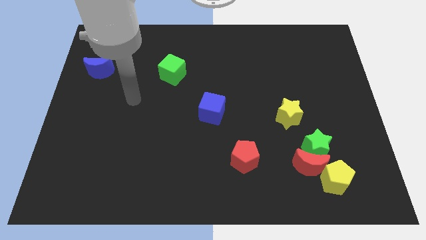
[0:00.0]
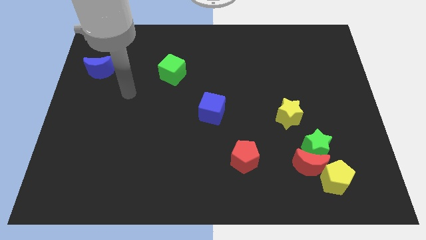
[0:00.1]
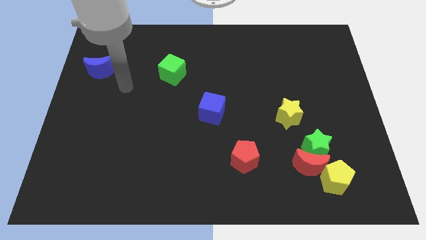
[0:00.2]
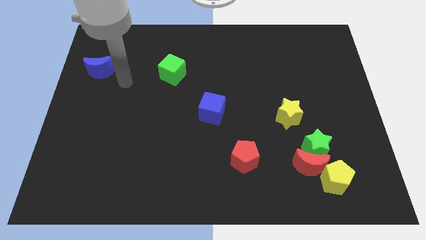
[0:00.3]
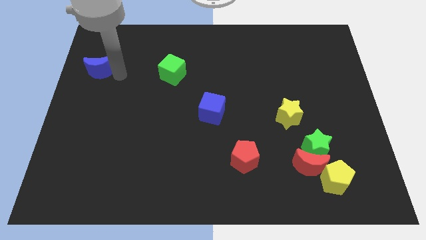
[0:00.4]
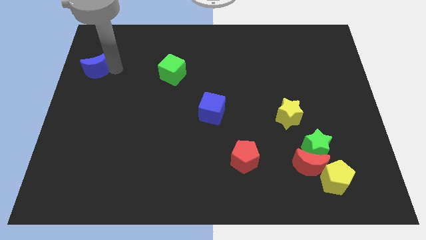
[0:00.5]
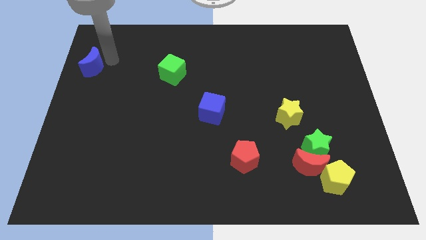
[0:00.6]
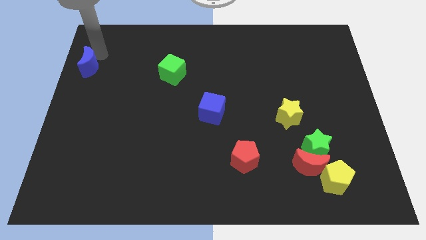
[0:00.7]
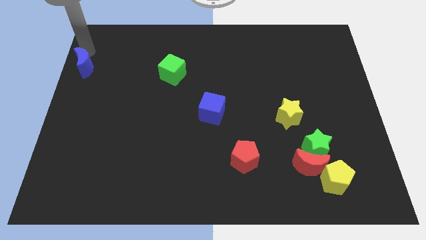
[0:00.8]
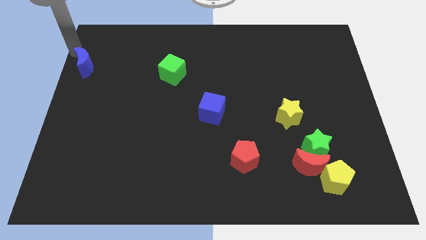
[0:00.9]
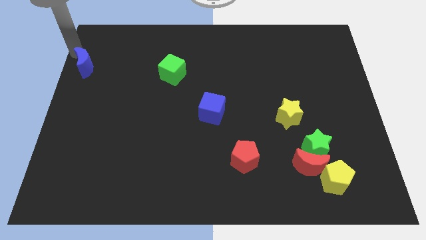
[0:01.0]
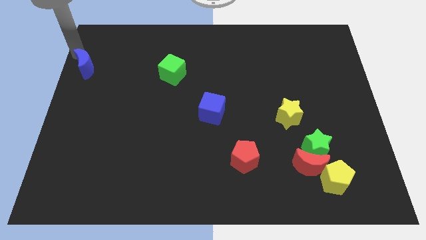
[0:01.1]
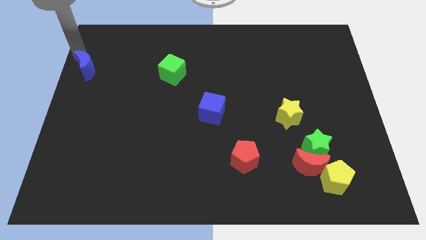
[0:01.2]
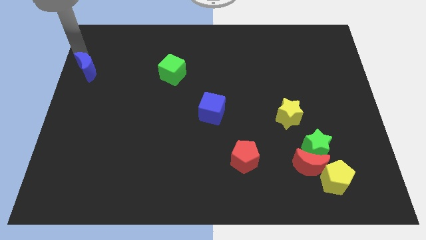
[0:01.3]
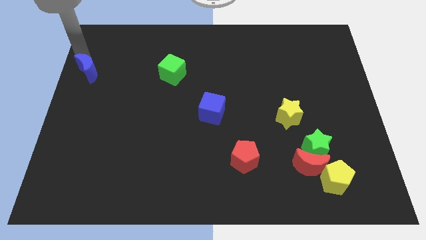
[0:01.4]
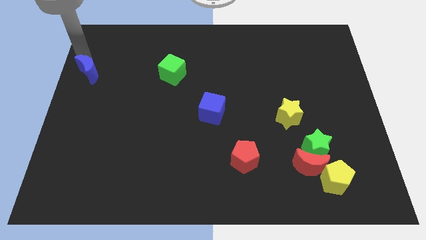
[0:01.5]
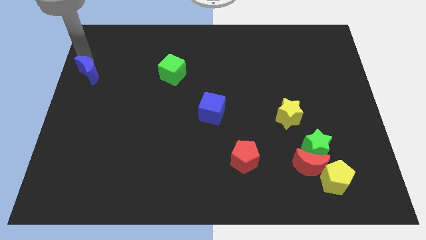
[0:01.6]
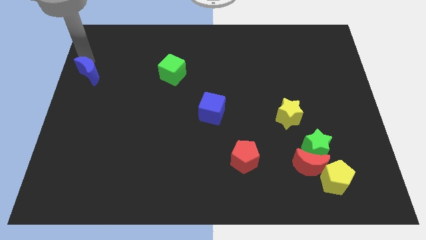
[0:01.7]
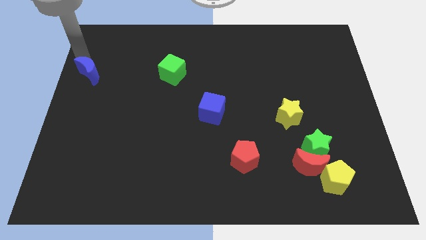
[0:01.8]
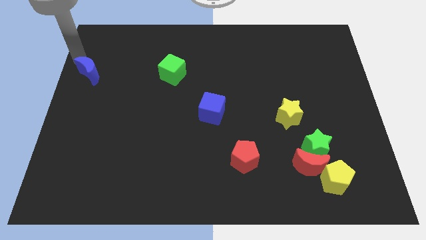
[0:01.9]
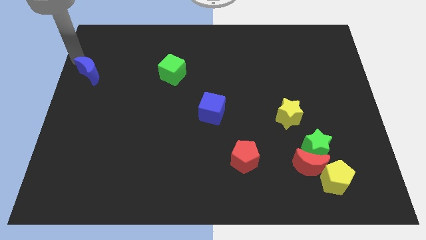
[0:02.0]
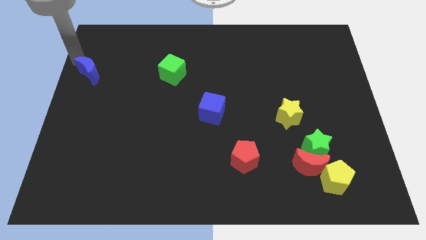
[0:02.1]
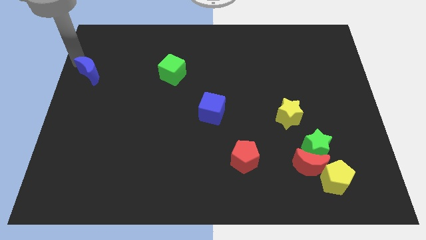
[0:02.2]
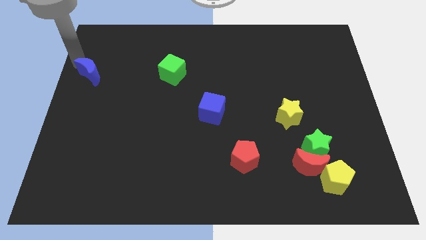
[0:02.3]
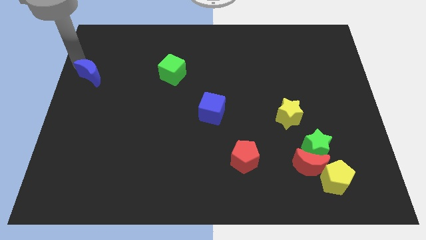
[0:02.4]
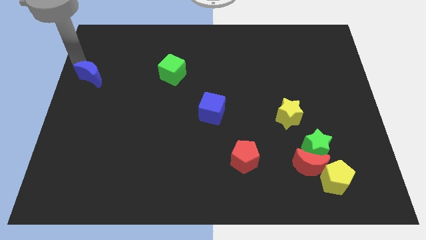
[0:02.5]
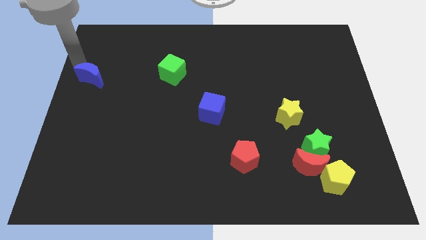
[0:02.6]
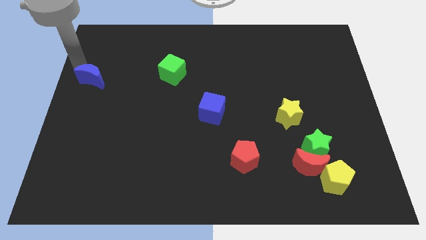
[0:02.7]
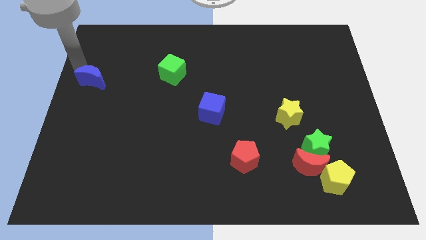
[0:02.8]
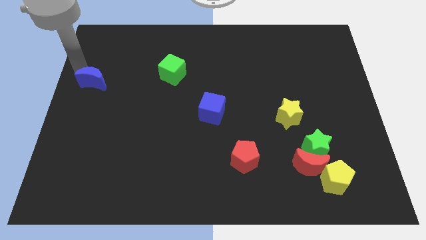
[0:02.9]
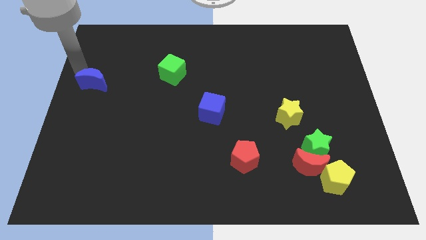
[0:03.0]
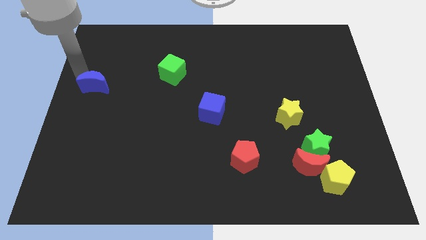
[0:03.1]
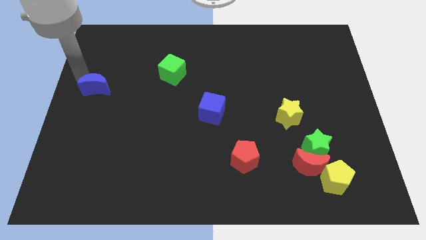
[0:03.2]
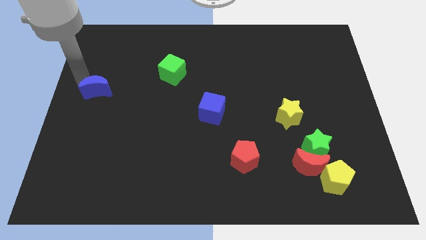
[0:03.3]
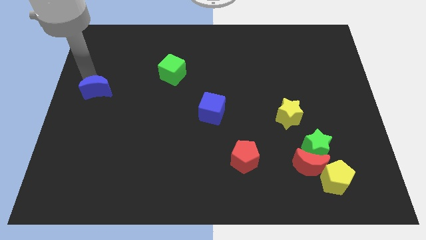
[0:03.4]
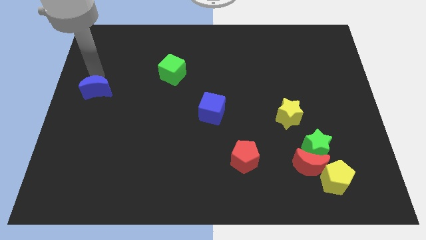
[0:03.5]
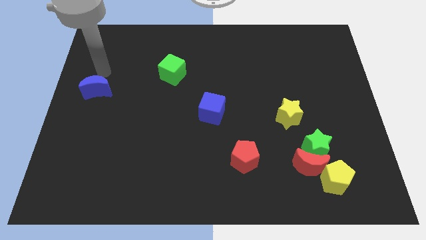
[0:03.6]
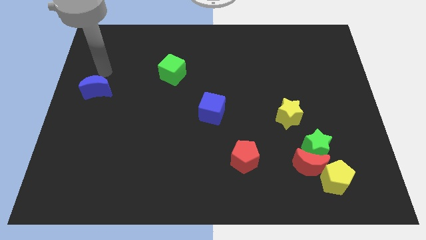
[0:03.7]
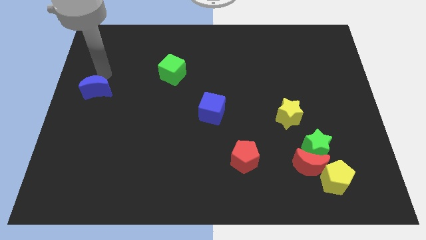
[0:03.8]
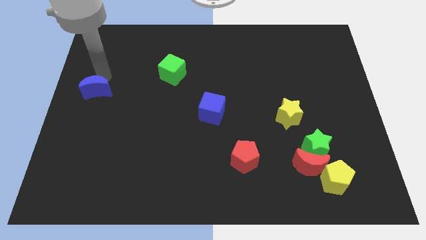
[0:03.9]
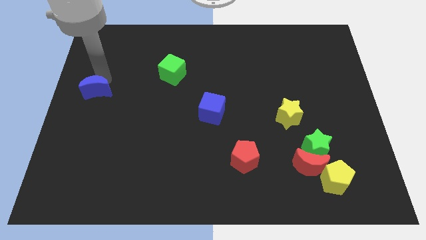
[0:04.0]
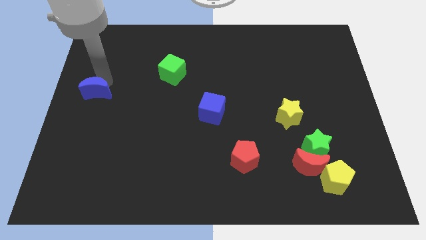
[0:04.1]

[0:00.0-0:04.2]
slightly move the blue moon down

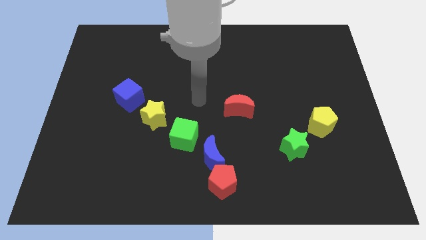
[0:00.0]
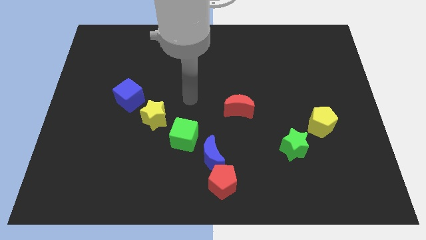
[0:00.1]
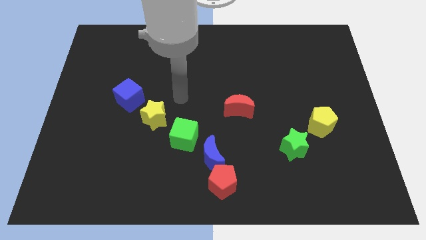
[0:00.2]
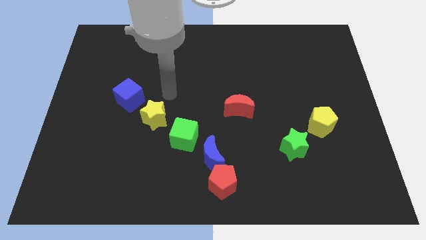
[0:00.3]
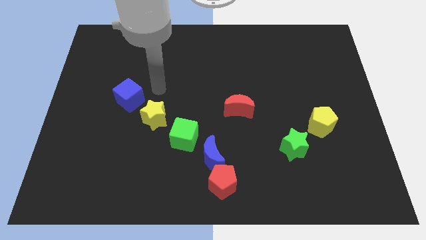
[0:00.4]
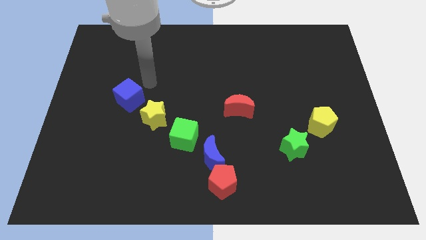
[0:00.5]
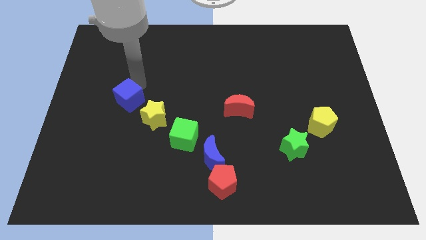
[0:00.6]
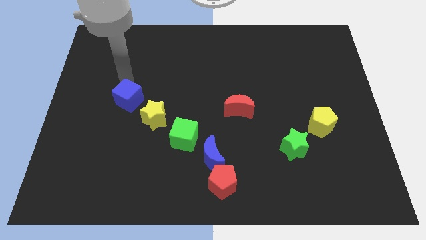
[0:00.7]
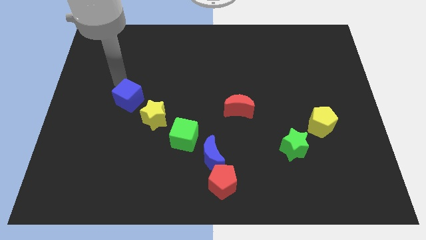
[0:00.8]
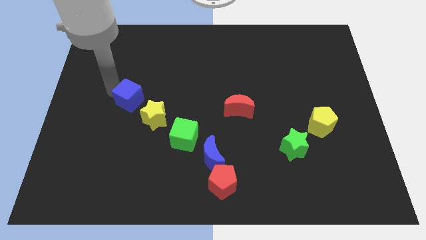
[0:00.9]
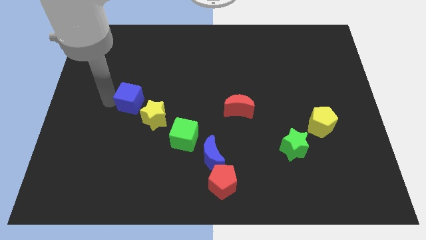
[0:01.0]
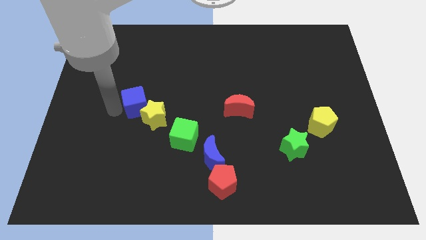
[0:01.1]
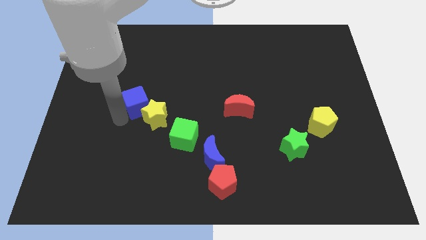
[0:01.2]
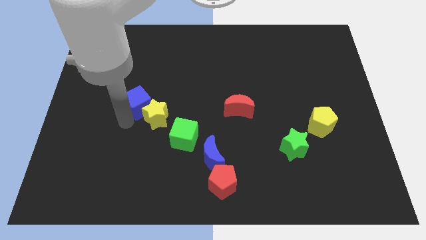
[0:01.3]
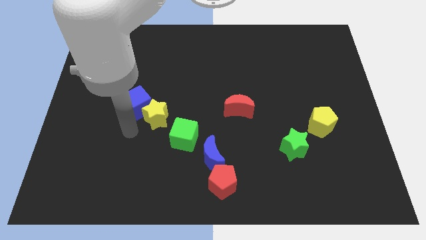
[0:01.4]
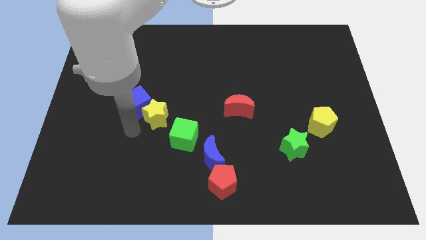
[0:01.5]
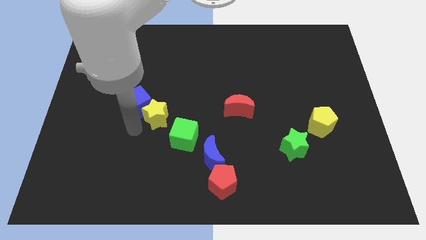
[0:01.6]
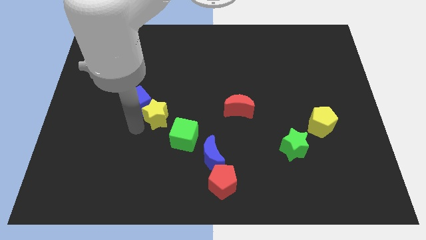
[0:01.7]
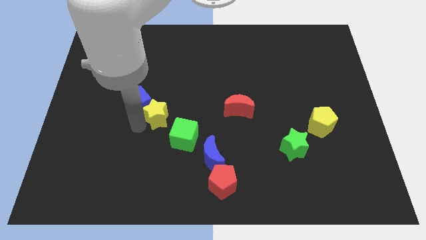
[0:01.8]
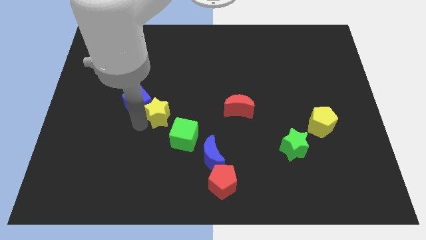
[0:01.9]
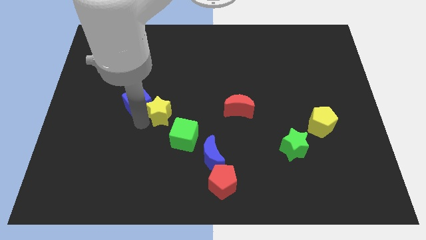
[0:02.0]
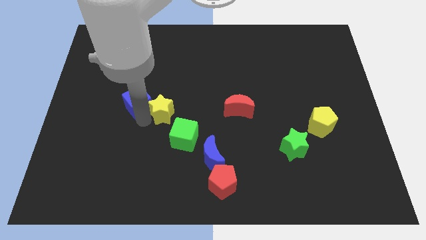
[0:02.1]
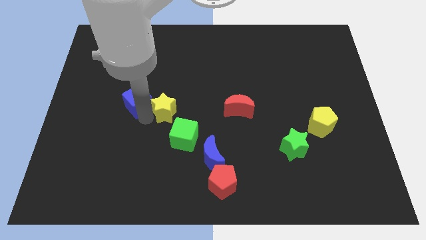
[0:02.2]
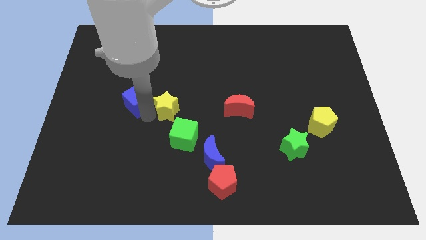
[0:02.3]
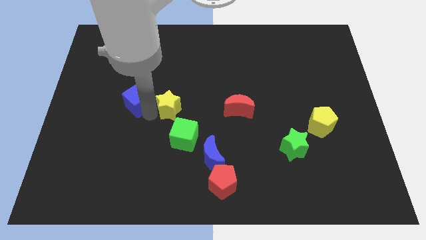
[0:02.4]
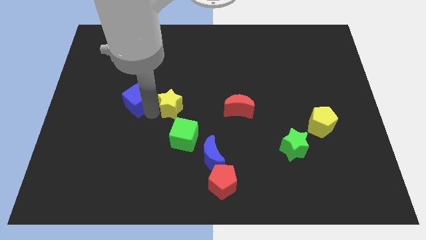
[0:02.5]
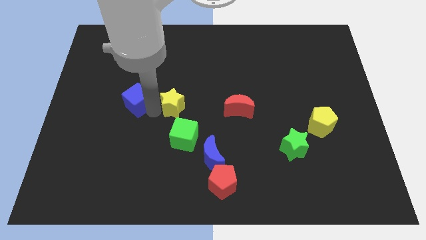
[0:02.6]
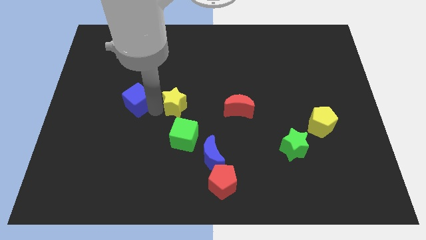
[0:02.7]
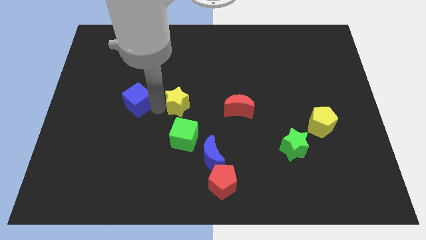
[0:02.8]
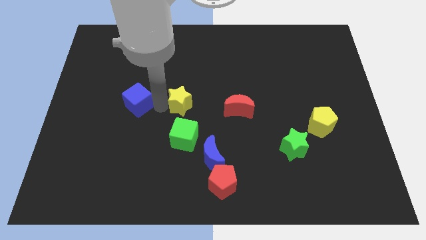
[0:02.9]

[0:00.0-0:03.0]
slightly move the yellow star up and then right

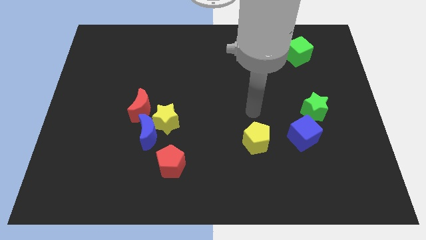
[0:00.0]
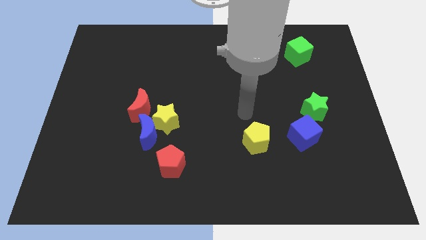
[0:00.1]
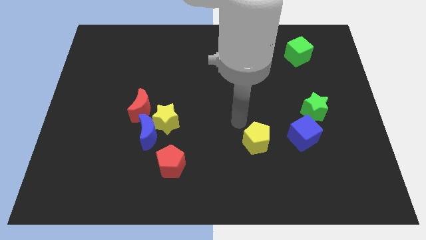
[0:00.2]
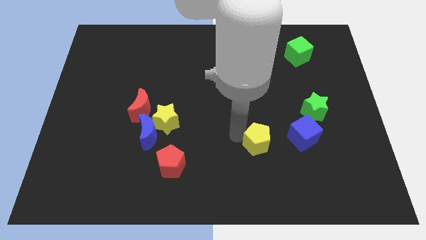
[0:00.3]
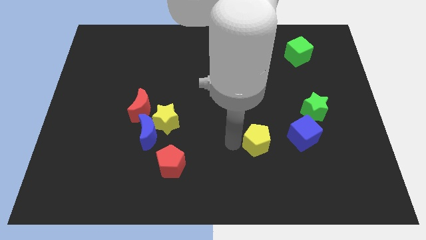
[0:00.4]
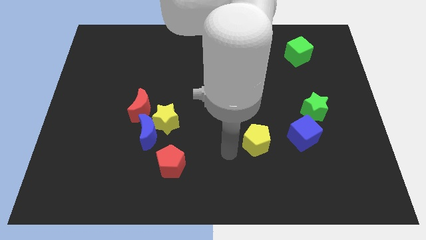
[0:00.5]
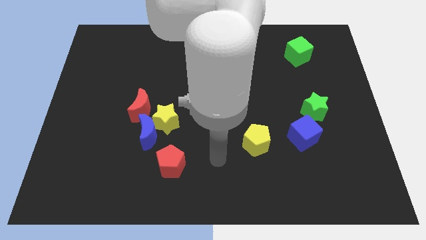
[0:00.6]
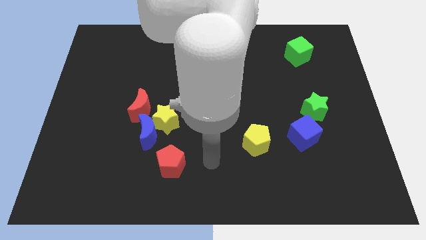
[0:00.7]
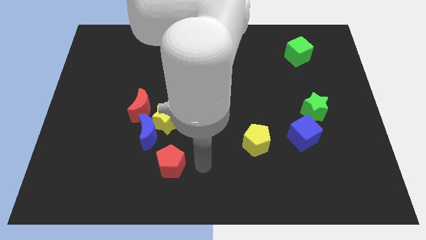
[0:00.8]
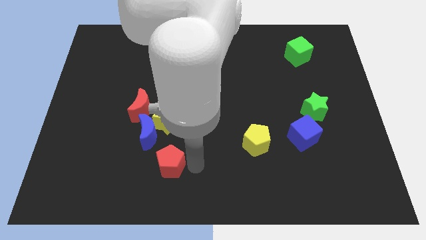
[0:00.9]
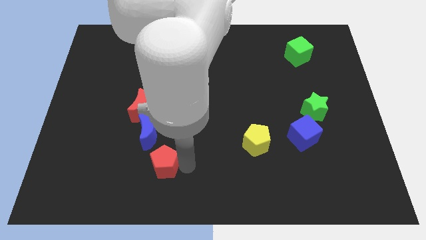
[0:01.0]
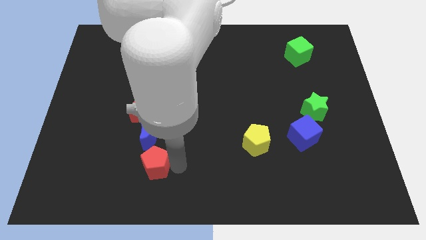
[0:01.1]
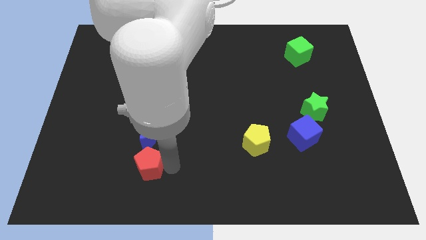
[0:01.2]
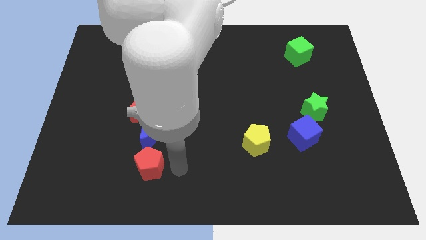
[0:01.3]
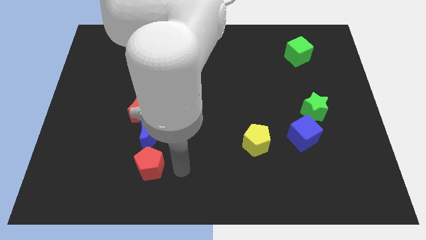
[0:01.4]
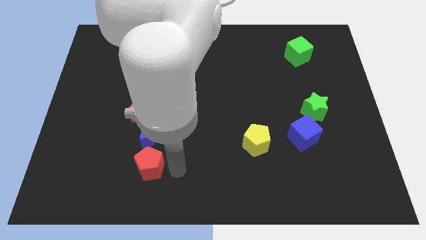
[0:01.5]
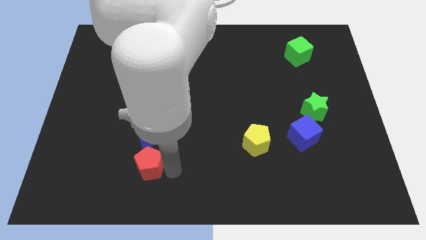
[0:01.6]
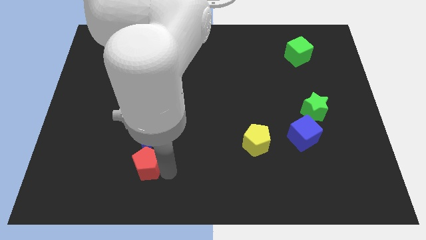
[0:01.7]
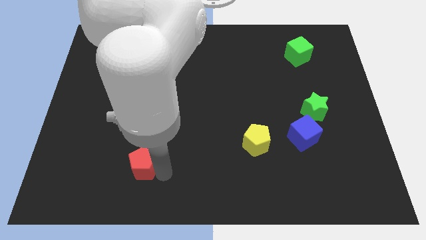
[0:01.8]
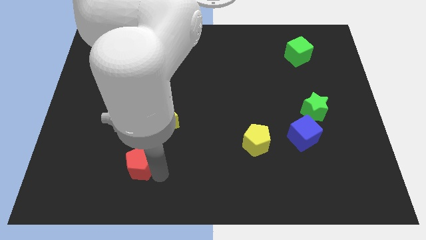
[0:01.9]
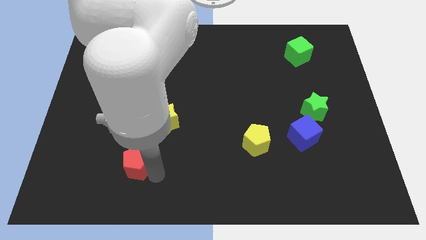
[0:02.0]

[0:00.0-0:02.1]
slide the red pentagon somewhat left
